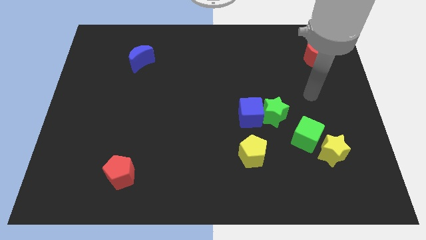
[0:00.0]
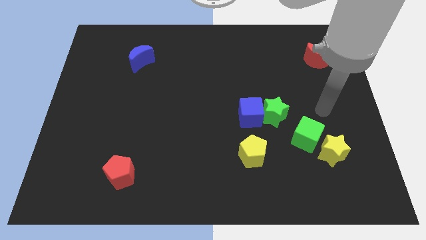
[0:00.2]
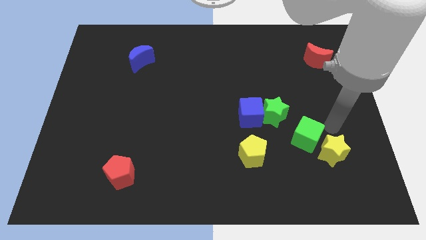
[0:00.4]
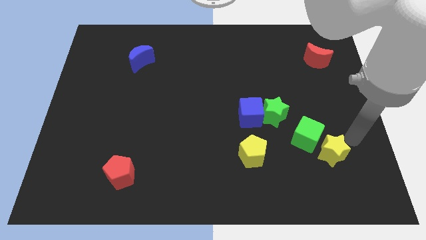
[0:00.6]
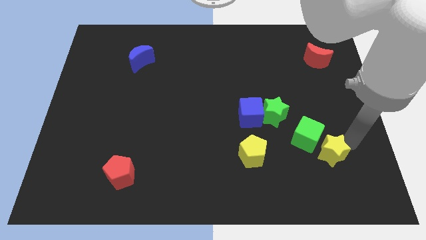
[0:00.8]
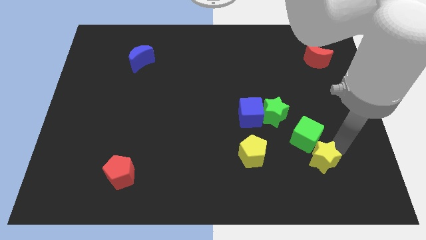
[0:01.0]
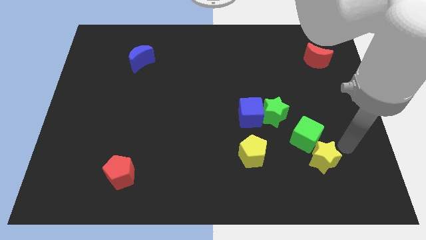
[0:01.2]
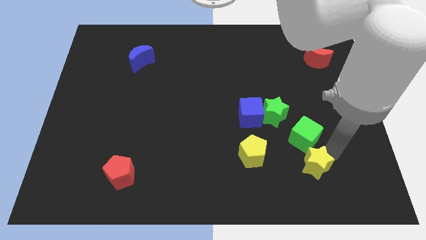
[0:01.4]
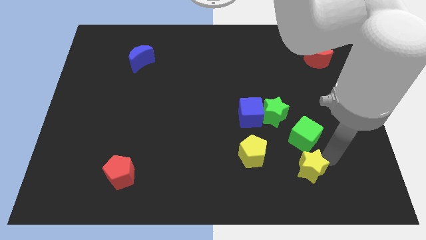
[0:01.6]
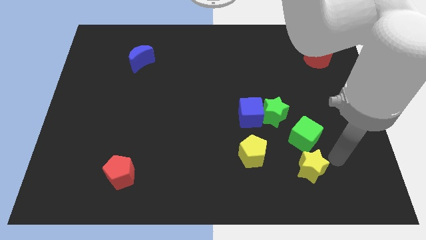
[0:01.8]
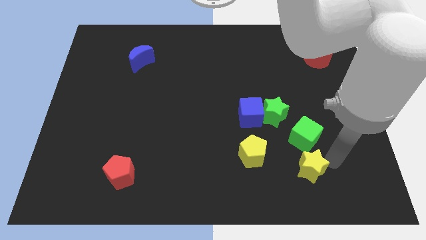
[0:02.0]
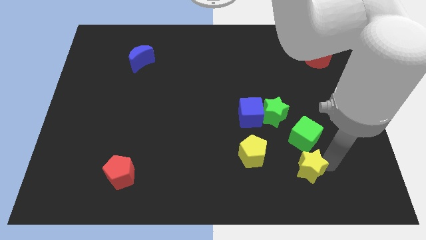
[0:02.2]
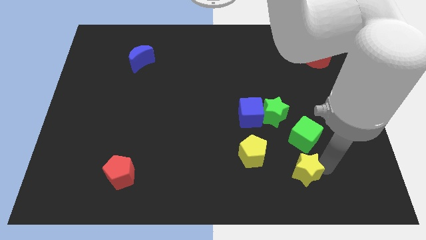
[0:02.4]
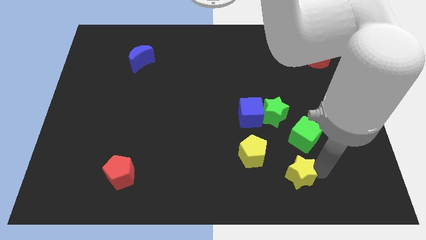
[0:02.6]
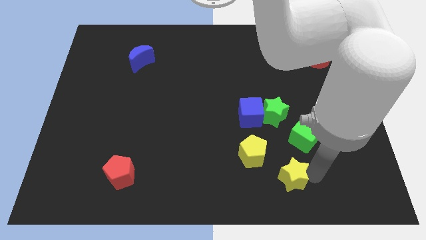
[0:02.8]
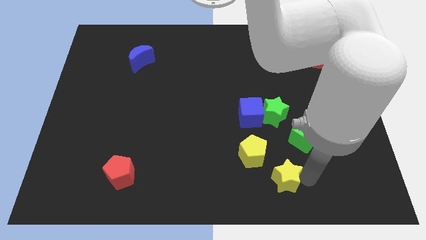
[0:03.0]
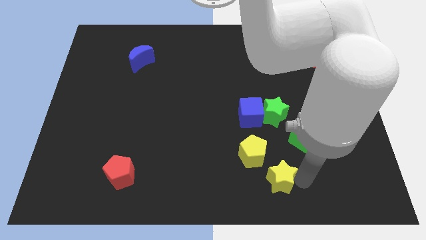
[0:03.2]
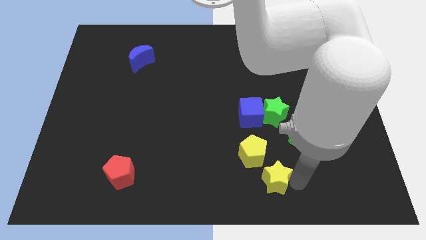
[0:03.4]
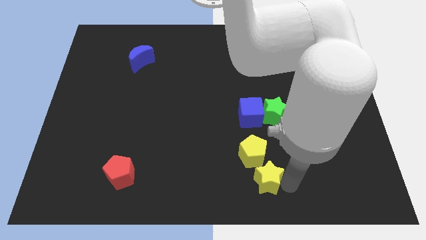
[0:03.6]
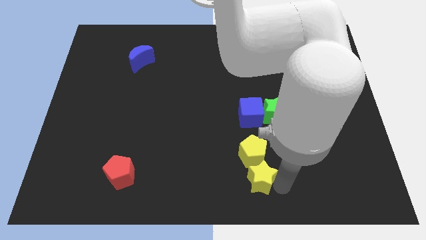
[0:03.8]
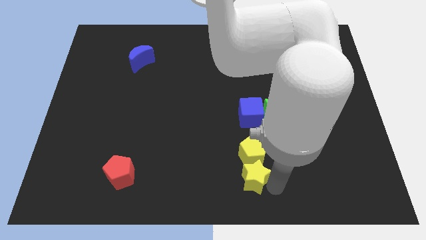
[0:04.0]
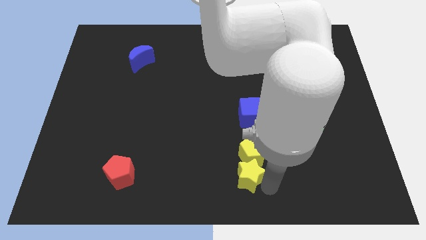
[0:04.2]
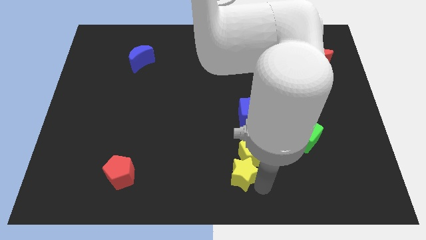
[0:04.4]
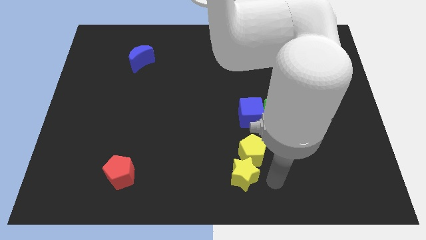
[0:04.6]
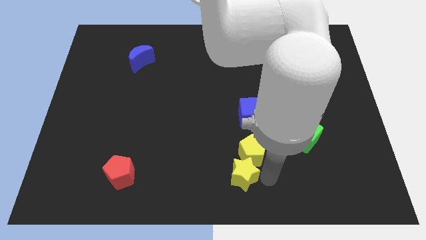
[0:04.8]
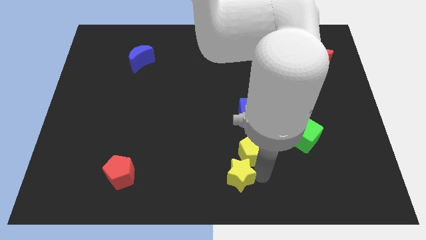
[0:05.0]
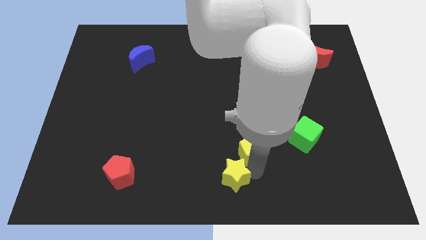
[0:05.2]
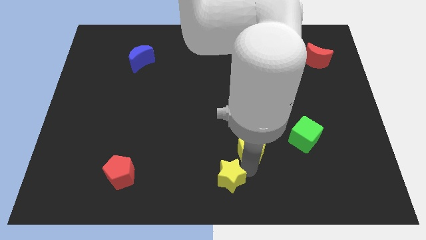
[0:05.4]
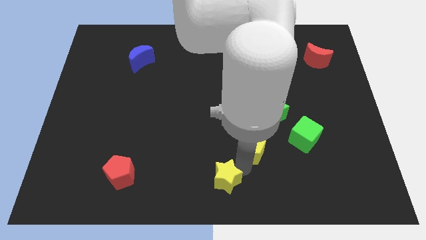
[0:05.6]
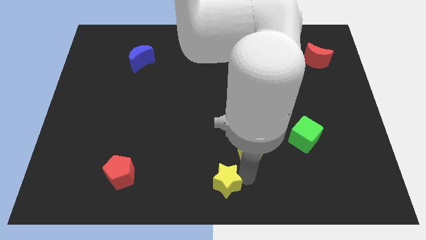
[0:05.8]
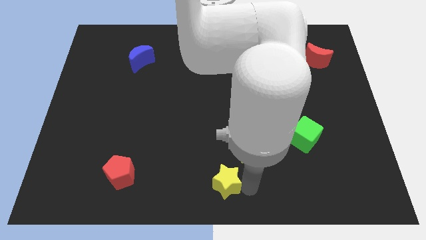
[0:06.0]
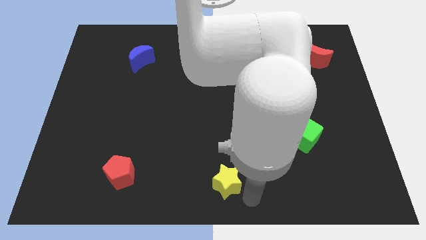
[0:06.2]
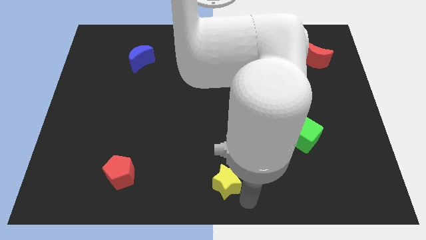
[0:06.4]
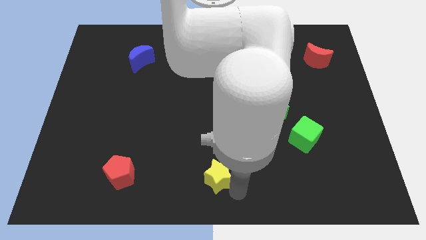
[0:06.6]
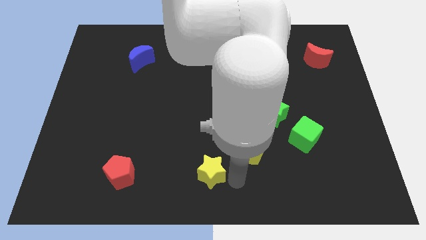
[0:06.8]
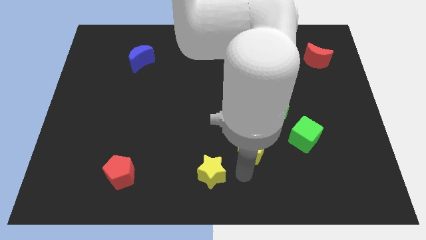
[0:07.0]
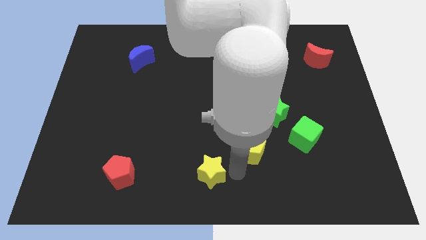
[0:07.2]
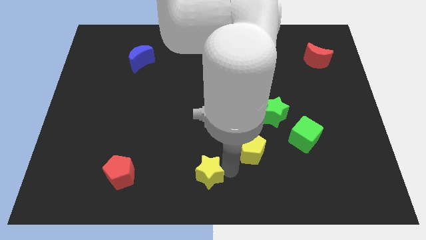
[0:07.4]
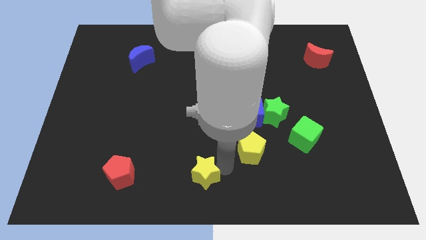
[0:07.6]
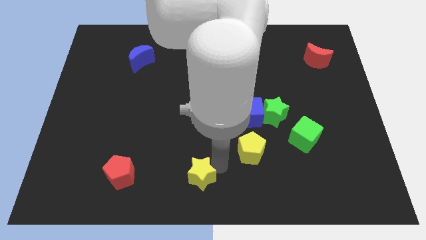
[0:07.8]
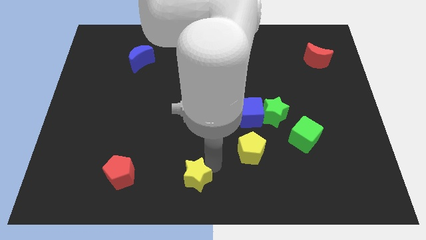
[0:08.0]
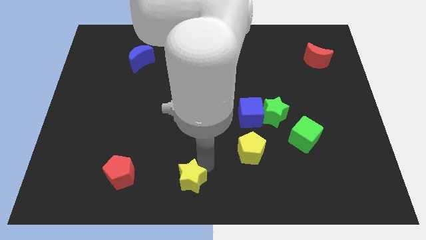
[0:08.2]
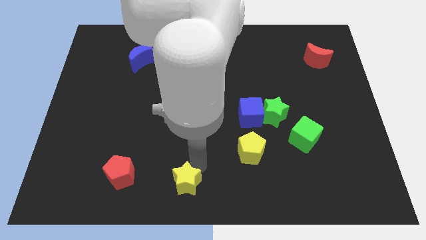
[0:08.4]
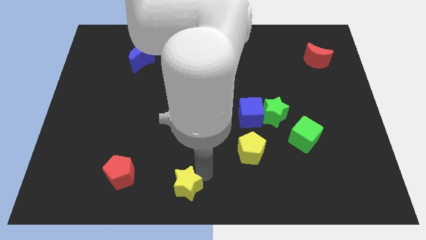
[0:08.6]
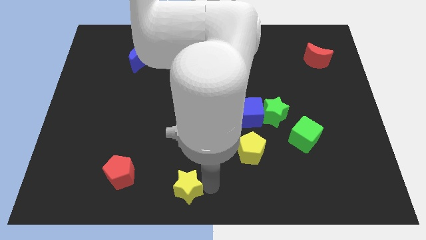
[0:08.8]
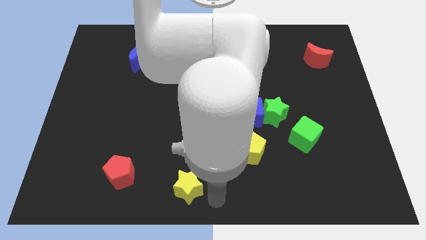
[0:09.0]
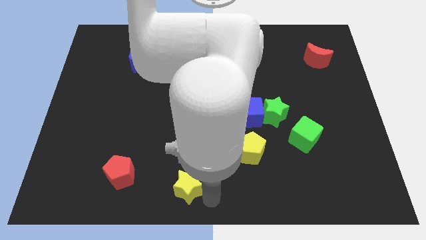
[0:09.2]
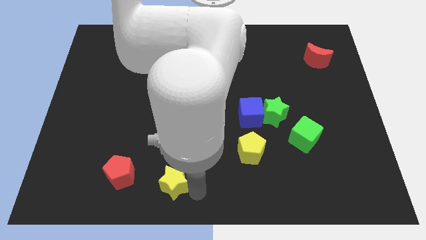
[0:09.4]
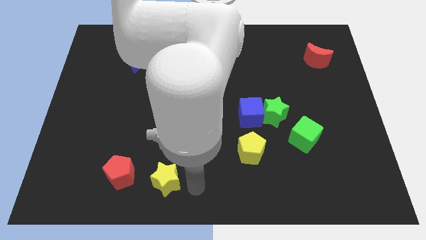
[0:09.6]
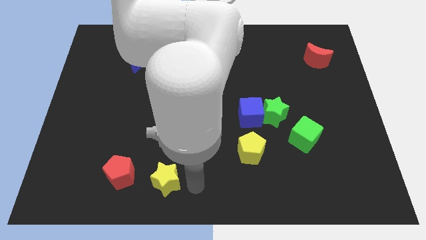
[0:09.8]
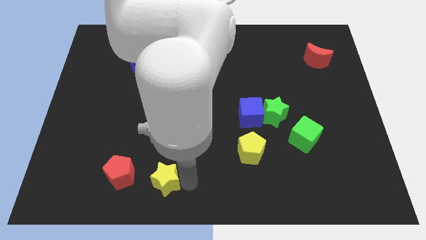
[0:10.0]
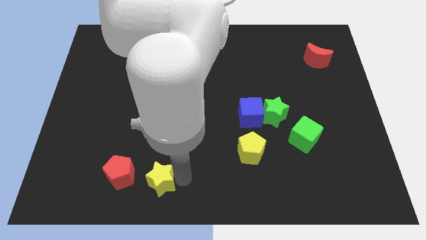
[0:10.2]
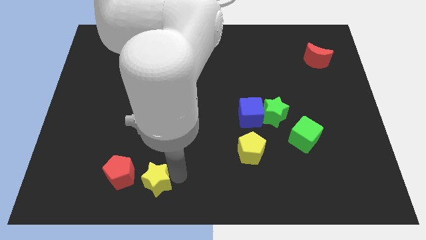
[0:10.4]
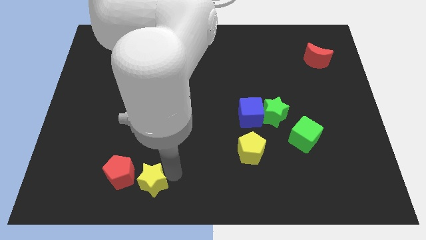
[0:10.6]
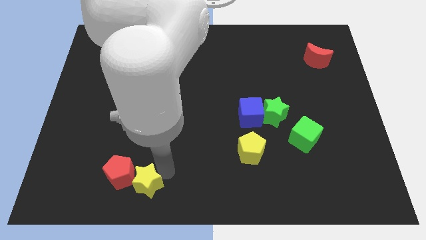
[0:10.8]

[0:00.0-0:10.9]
slide the yellow star to the red pentagon

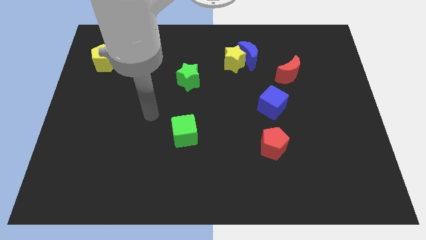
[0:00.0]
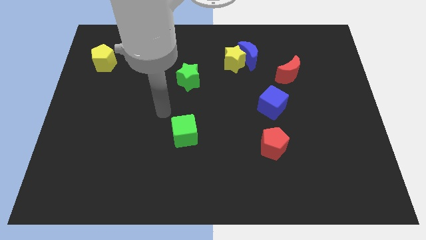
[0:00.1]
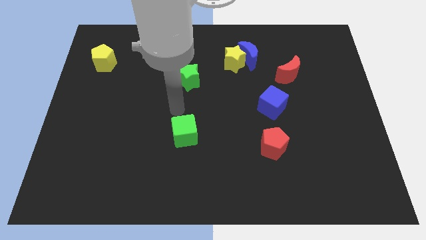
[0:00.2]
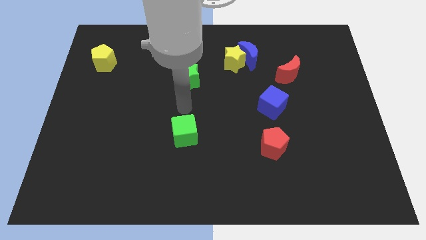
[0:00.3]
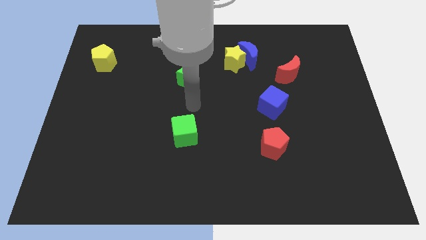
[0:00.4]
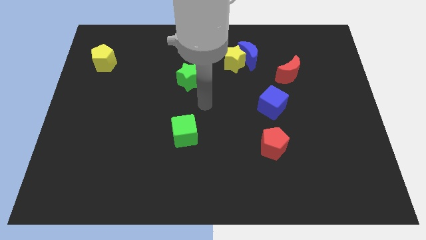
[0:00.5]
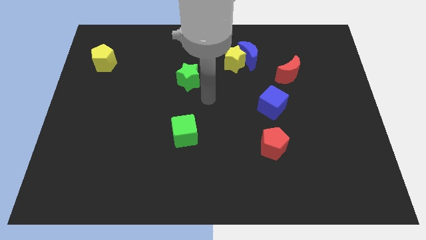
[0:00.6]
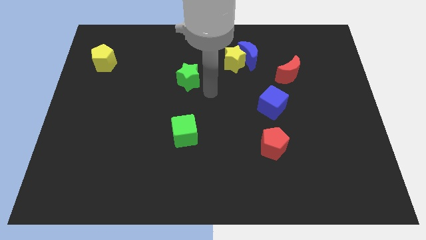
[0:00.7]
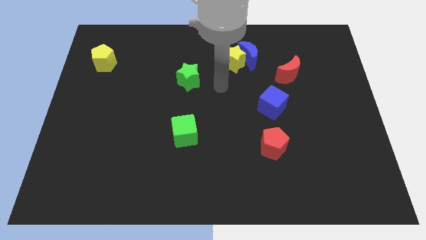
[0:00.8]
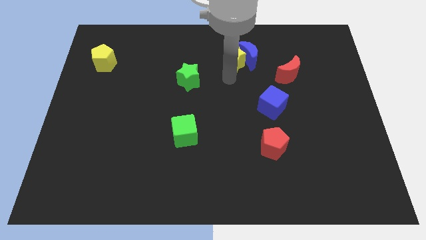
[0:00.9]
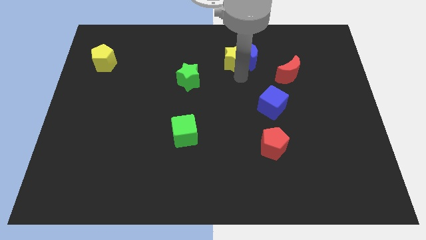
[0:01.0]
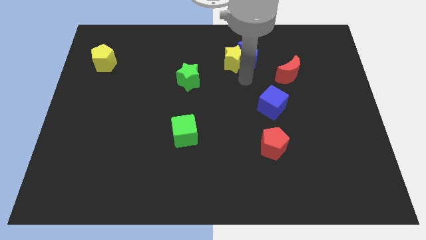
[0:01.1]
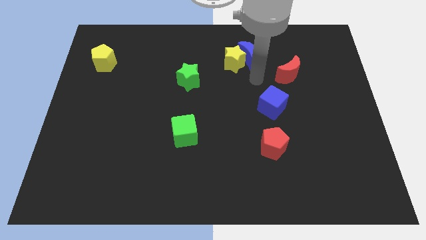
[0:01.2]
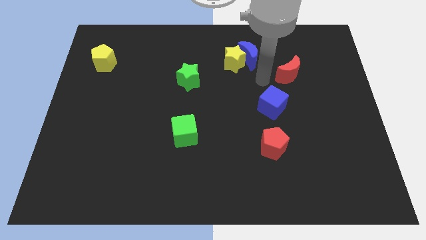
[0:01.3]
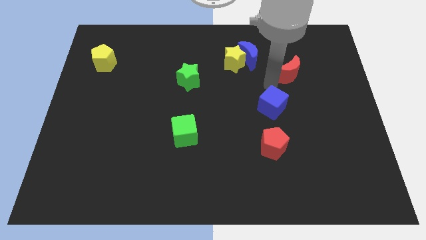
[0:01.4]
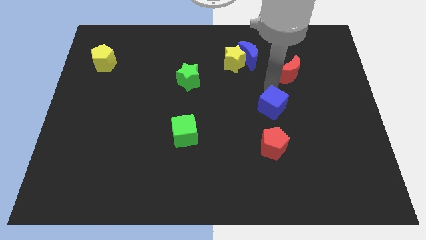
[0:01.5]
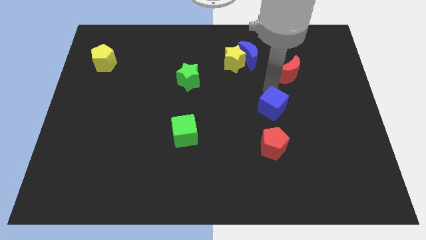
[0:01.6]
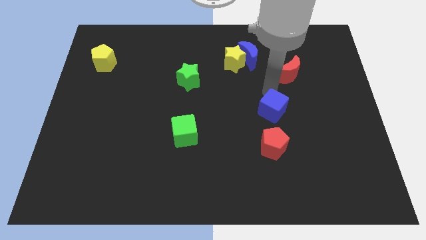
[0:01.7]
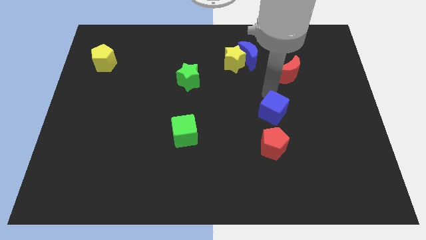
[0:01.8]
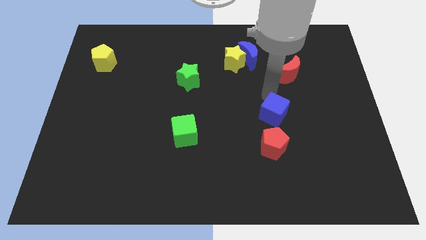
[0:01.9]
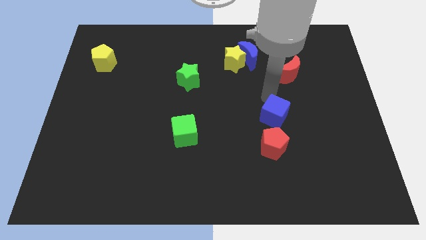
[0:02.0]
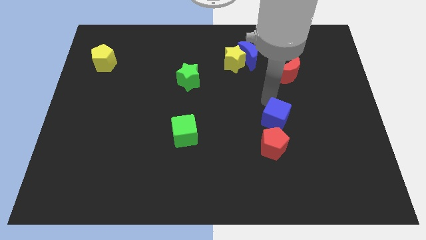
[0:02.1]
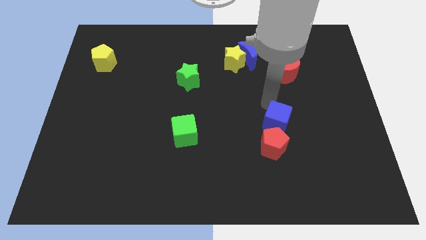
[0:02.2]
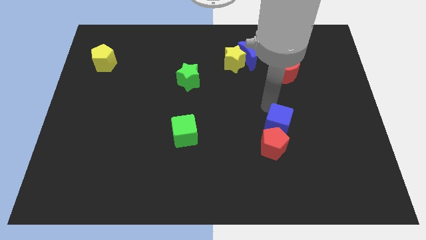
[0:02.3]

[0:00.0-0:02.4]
put the blue cube next to the red pentagon
